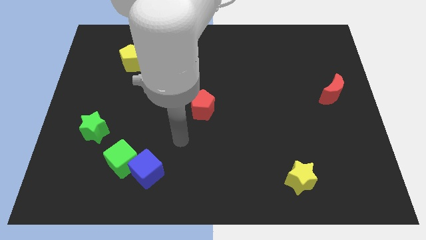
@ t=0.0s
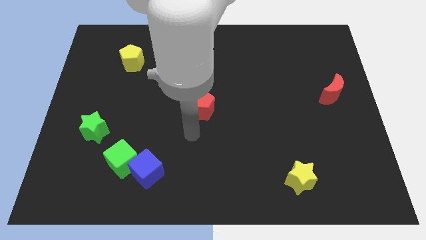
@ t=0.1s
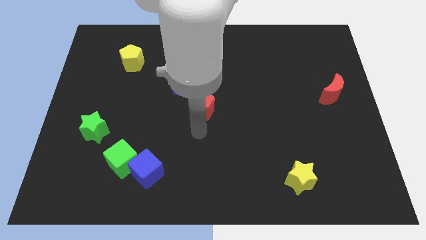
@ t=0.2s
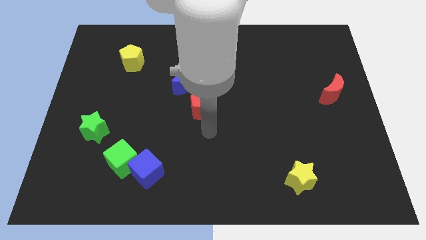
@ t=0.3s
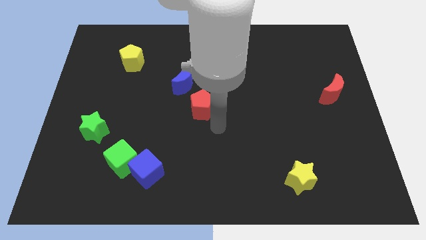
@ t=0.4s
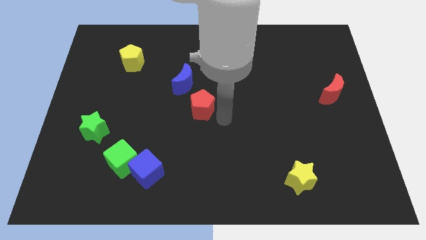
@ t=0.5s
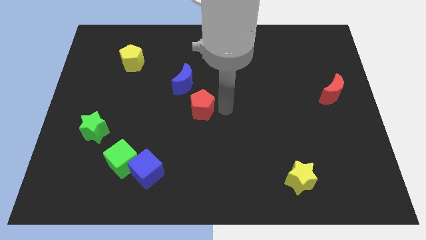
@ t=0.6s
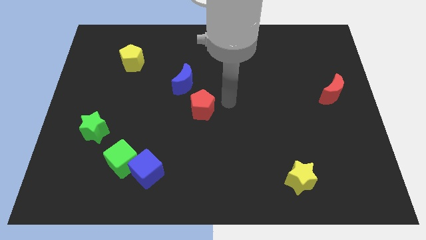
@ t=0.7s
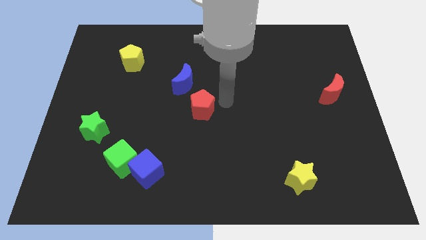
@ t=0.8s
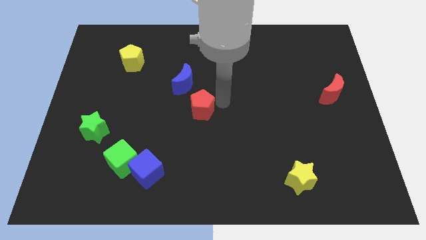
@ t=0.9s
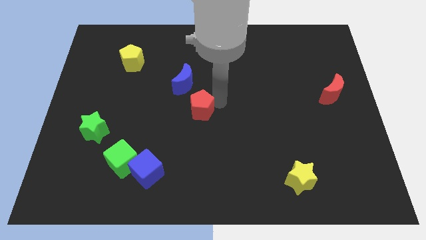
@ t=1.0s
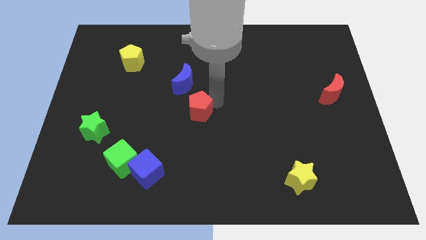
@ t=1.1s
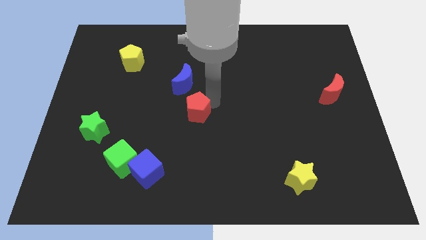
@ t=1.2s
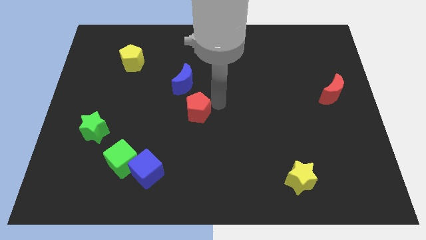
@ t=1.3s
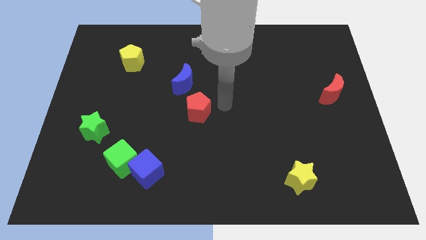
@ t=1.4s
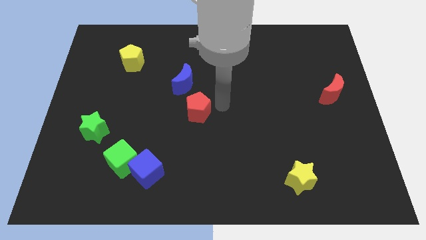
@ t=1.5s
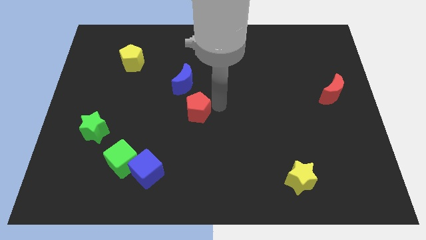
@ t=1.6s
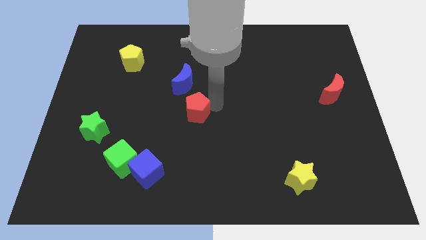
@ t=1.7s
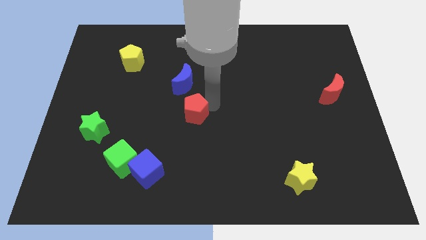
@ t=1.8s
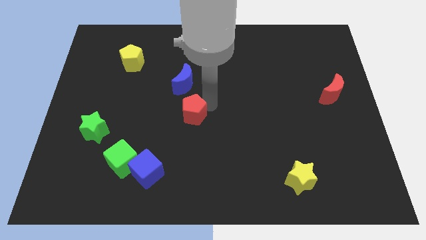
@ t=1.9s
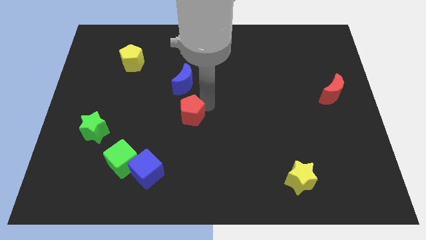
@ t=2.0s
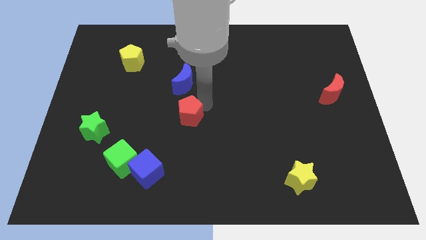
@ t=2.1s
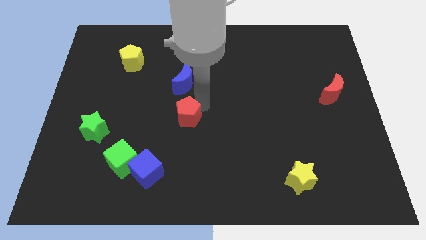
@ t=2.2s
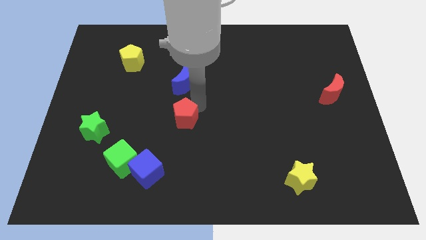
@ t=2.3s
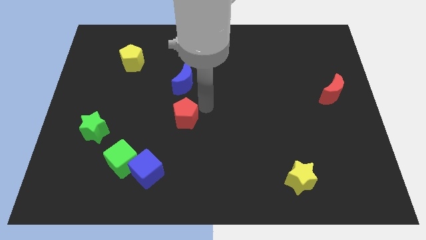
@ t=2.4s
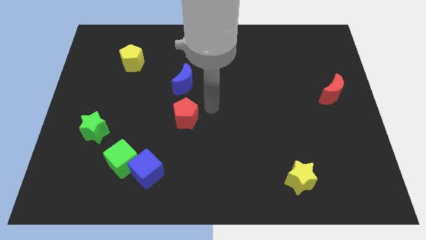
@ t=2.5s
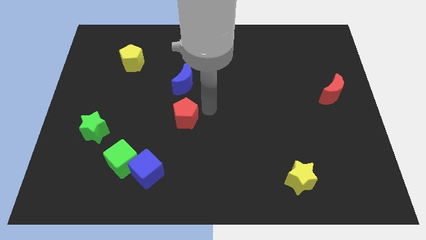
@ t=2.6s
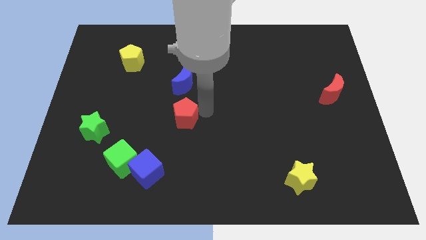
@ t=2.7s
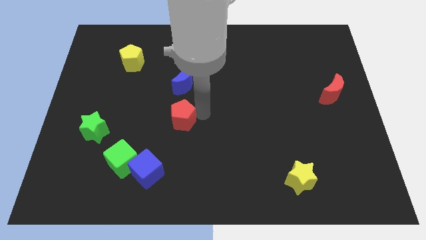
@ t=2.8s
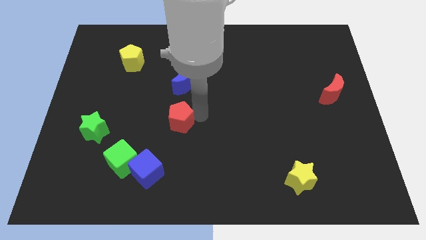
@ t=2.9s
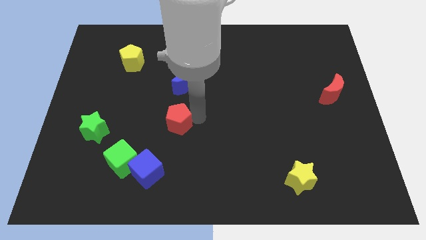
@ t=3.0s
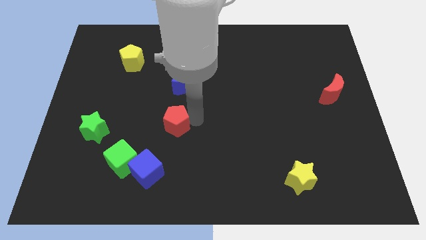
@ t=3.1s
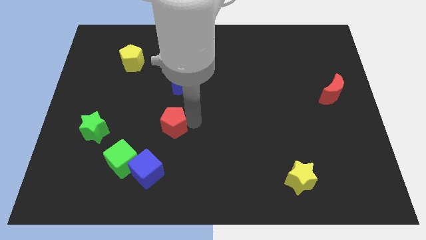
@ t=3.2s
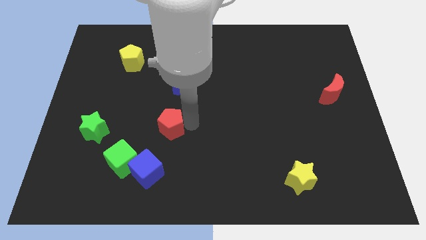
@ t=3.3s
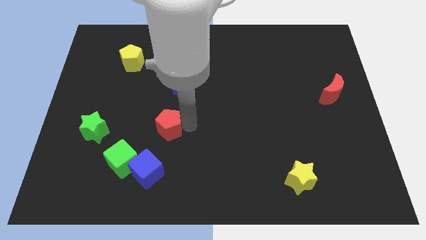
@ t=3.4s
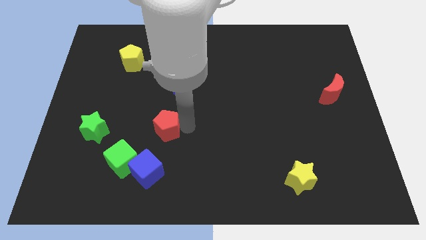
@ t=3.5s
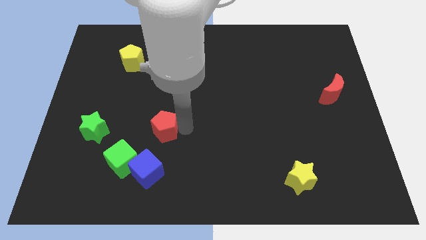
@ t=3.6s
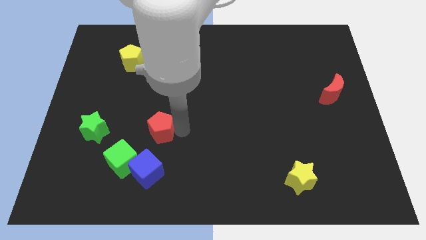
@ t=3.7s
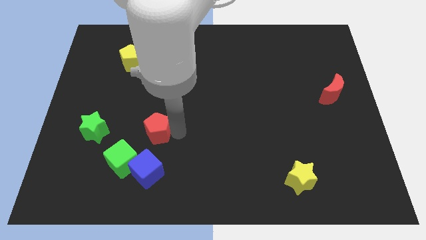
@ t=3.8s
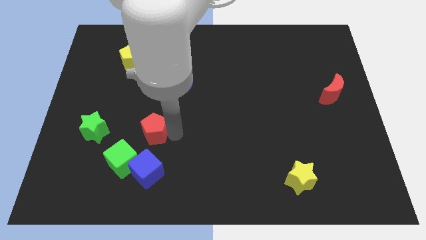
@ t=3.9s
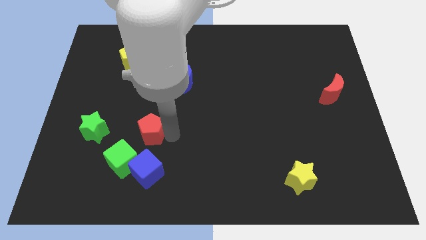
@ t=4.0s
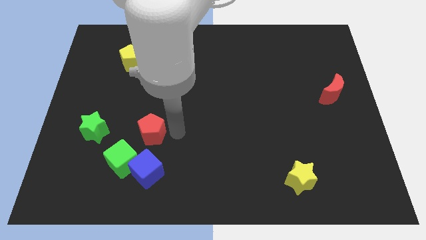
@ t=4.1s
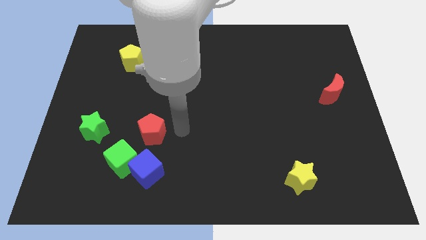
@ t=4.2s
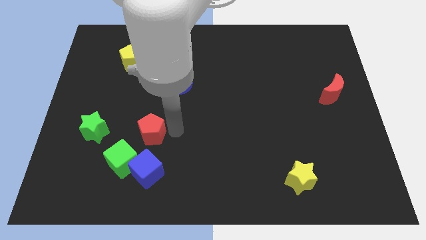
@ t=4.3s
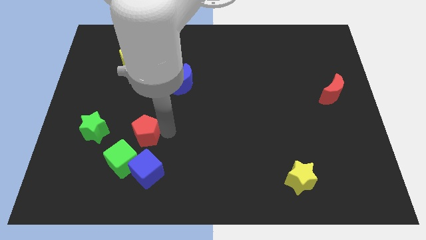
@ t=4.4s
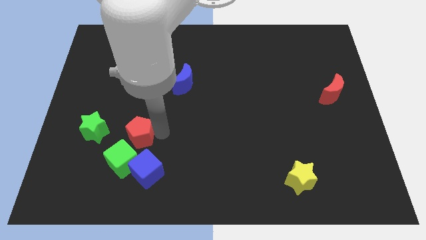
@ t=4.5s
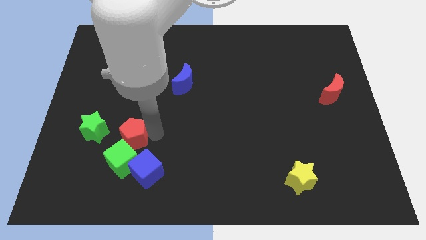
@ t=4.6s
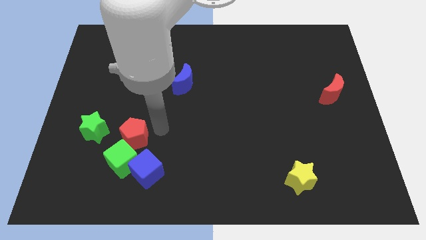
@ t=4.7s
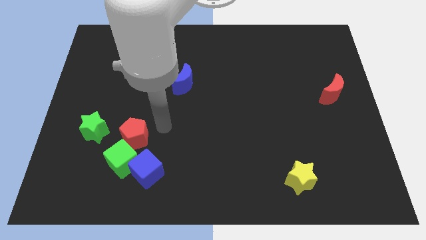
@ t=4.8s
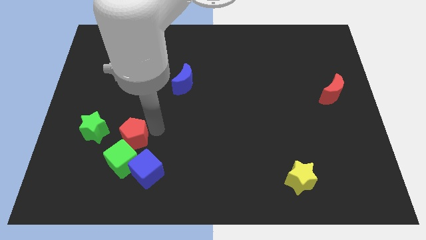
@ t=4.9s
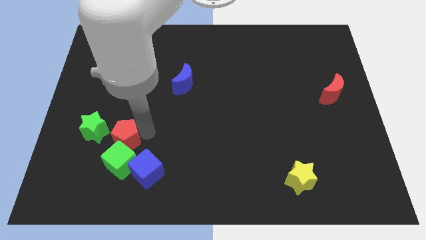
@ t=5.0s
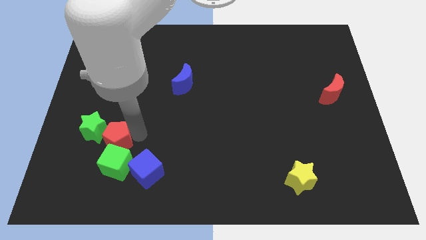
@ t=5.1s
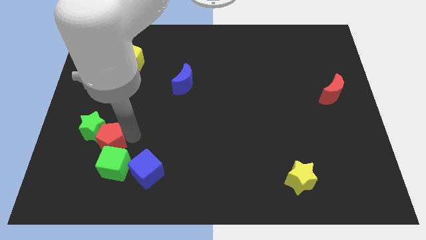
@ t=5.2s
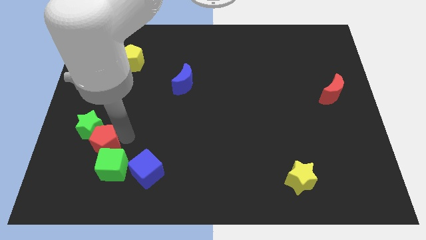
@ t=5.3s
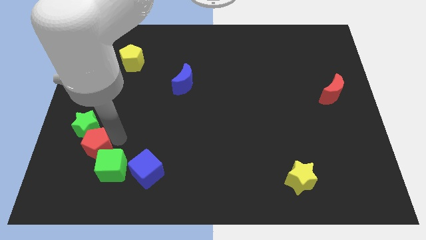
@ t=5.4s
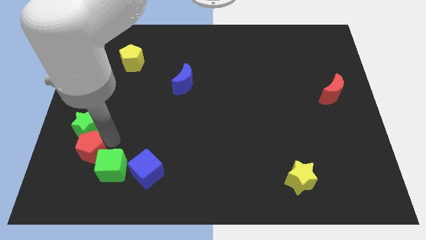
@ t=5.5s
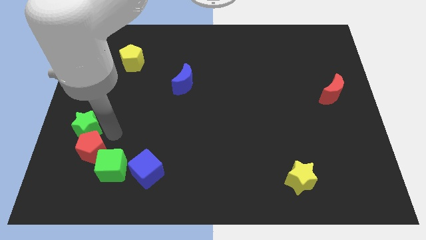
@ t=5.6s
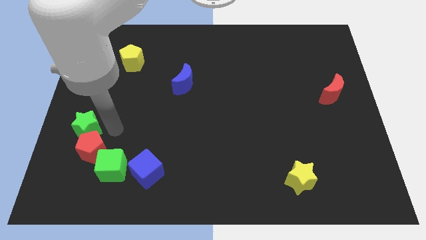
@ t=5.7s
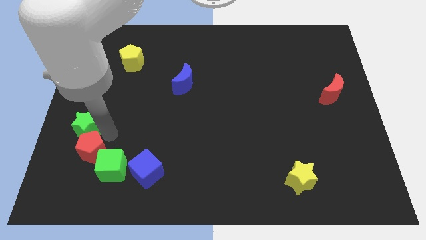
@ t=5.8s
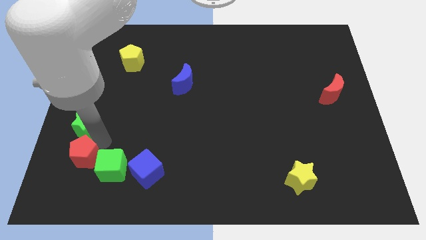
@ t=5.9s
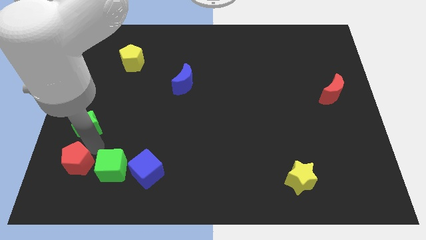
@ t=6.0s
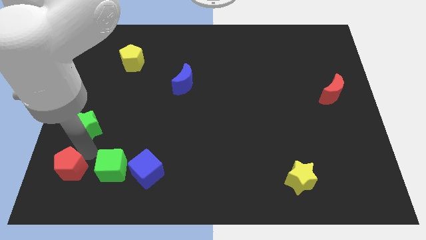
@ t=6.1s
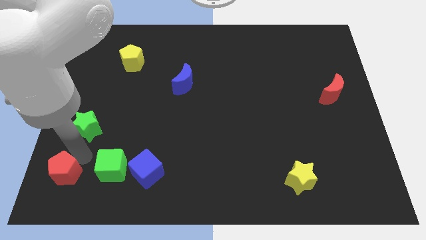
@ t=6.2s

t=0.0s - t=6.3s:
put the red pentagon to the bottom left corner

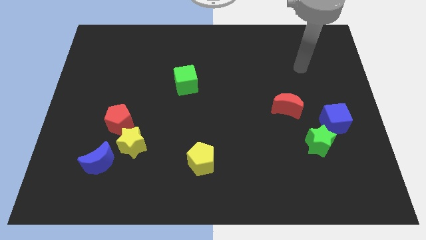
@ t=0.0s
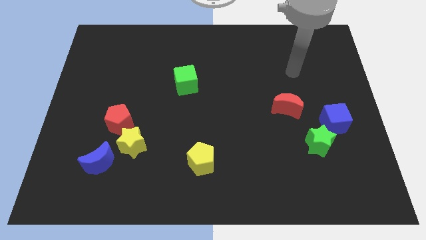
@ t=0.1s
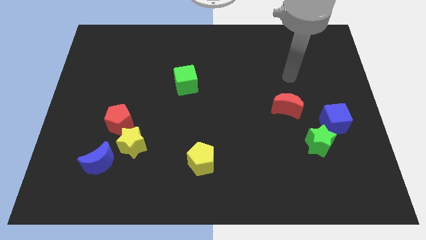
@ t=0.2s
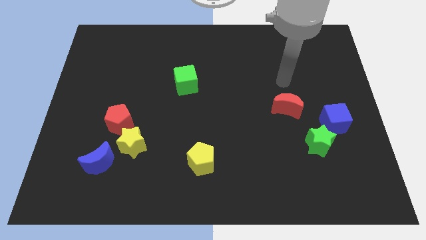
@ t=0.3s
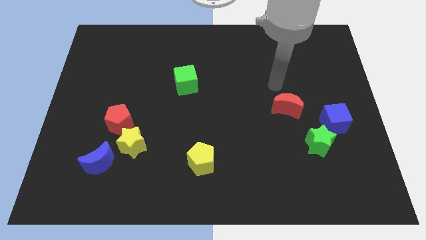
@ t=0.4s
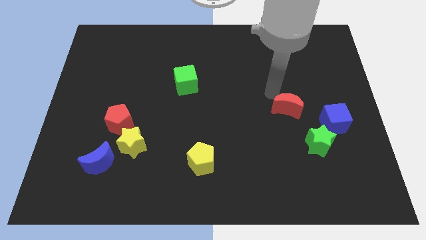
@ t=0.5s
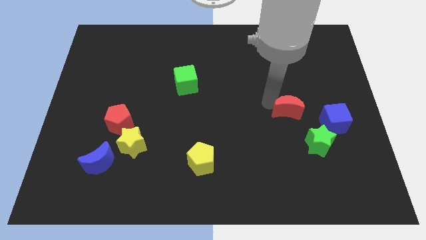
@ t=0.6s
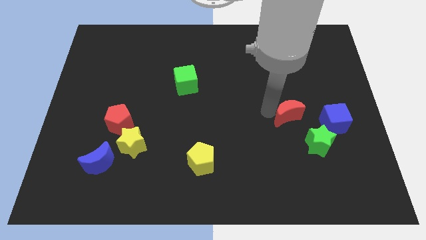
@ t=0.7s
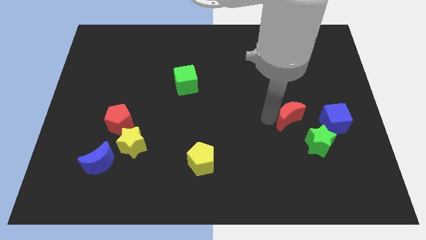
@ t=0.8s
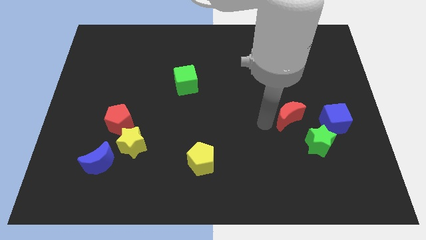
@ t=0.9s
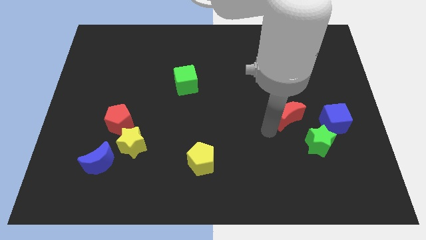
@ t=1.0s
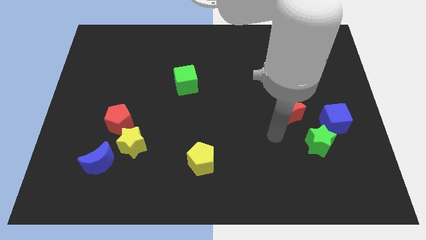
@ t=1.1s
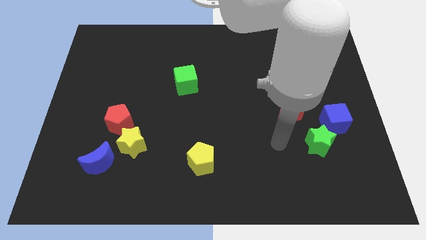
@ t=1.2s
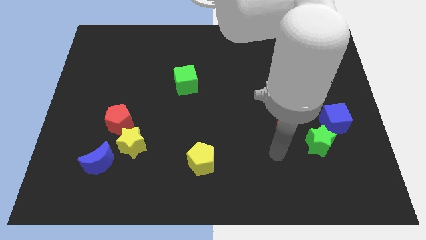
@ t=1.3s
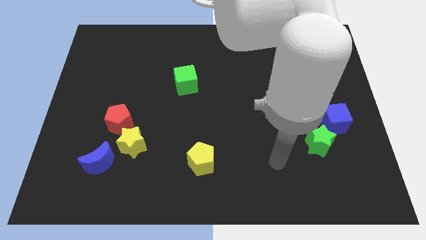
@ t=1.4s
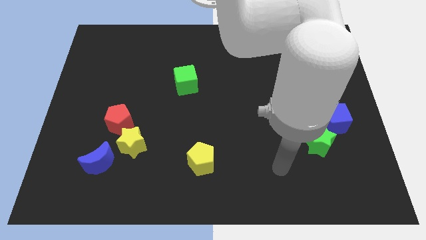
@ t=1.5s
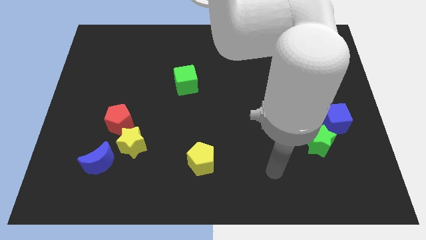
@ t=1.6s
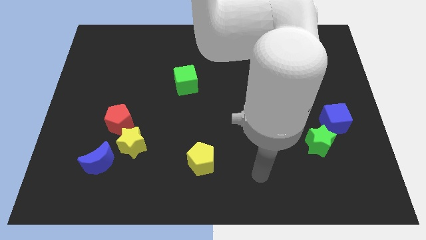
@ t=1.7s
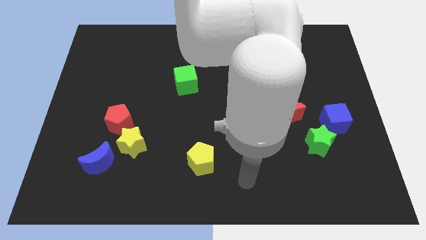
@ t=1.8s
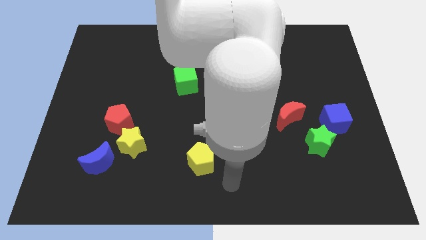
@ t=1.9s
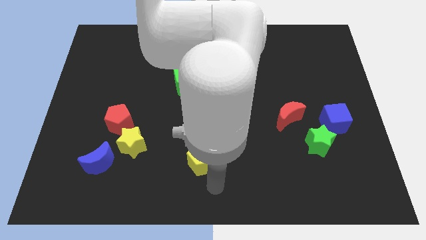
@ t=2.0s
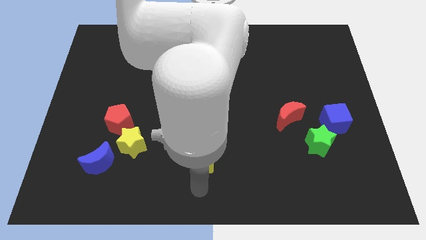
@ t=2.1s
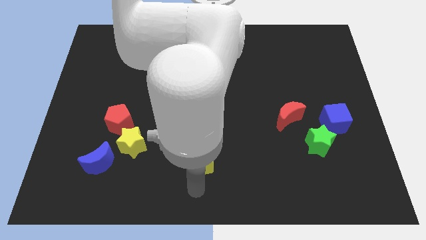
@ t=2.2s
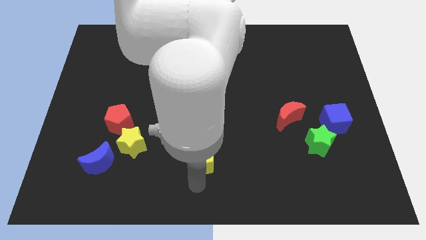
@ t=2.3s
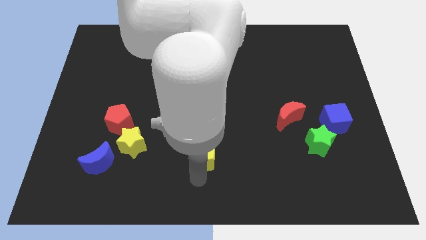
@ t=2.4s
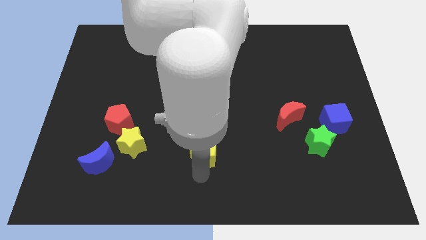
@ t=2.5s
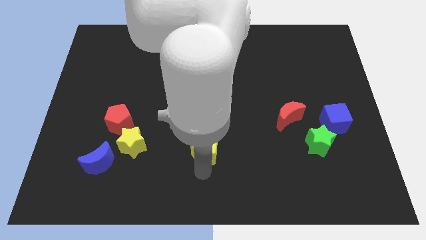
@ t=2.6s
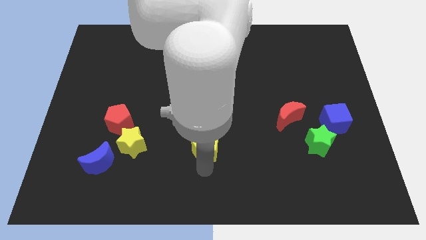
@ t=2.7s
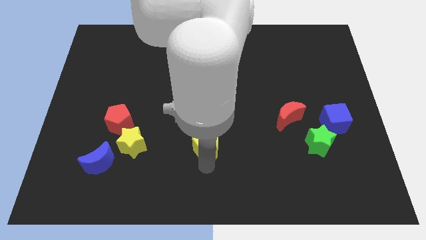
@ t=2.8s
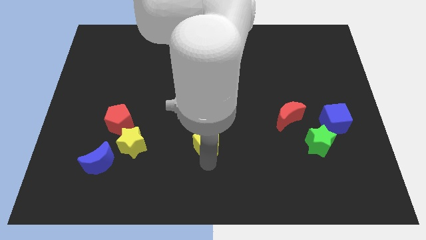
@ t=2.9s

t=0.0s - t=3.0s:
put the yellow pentagon to the center
